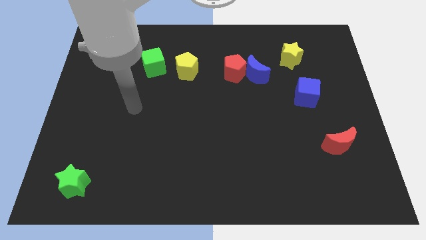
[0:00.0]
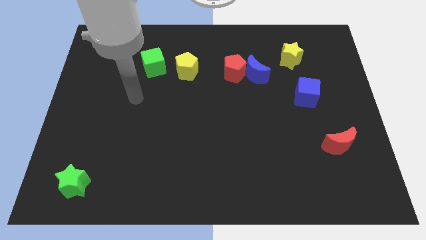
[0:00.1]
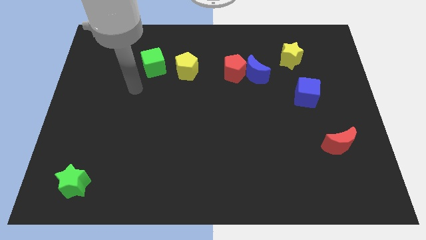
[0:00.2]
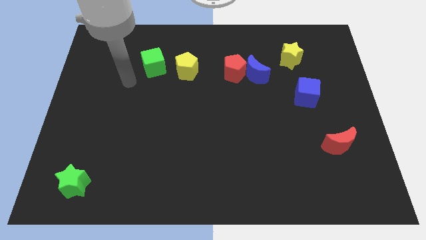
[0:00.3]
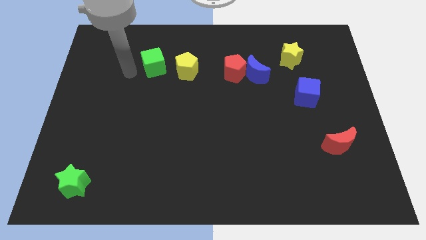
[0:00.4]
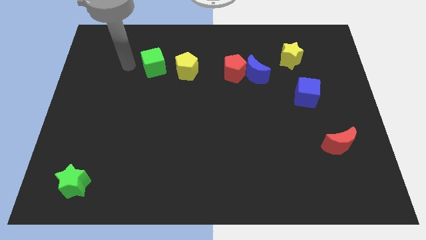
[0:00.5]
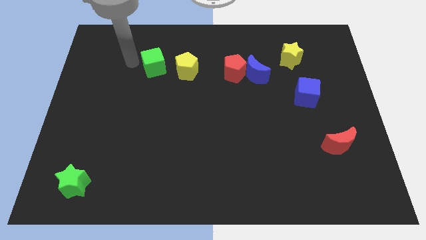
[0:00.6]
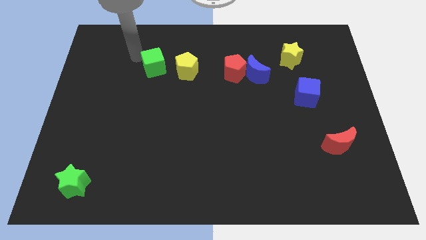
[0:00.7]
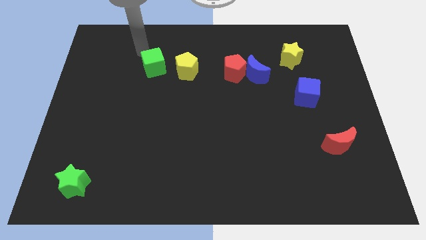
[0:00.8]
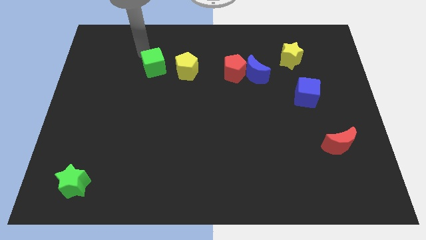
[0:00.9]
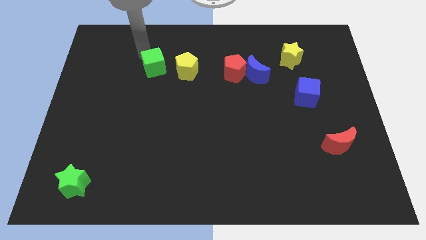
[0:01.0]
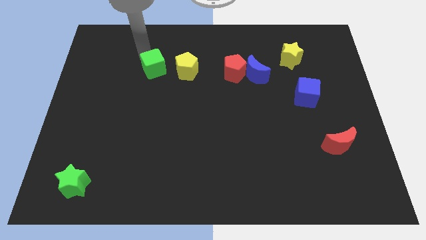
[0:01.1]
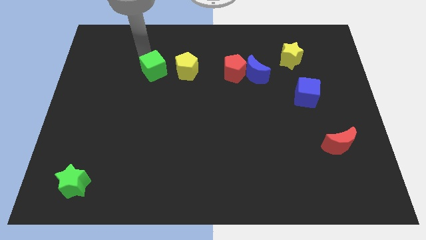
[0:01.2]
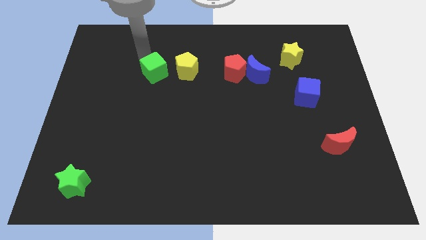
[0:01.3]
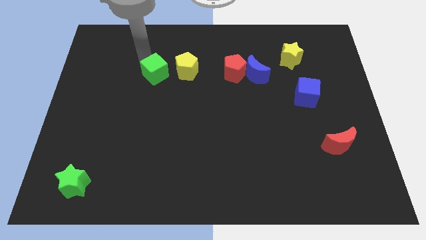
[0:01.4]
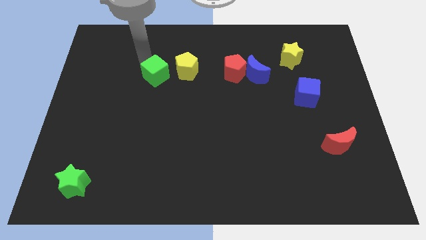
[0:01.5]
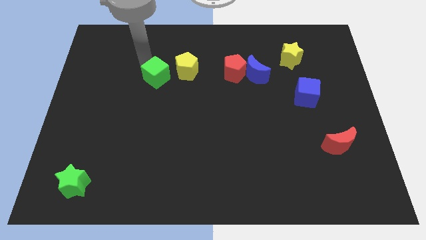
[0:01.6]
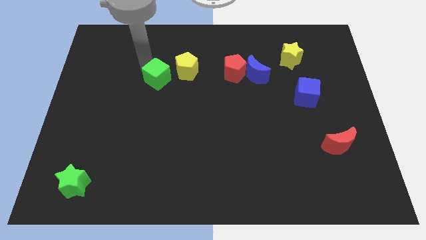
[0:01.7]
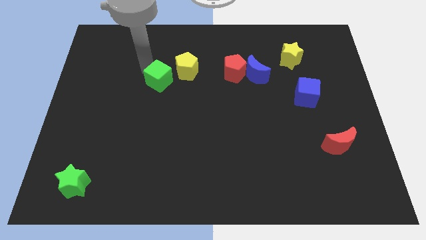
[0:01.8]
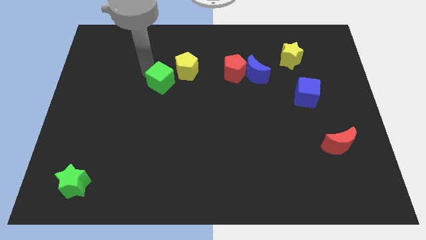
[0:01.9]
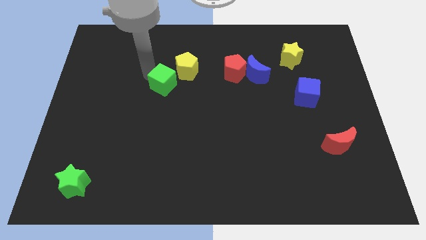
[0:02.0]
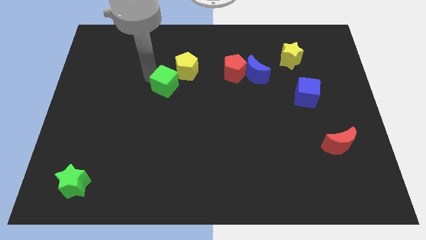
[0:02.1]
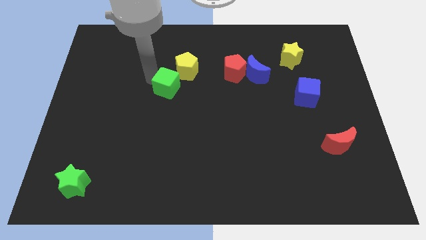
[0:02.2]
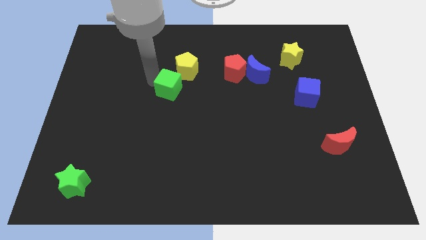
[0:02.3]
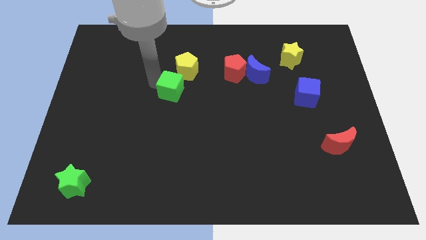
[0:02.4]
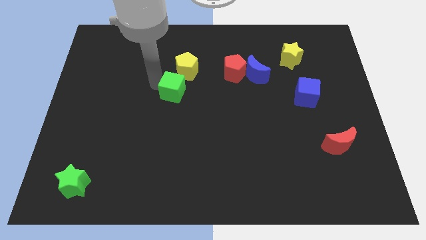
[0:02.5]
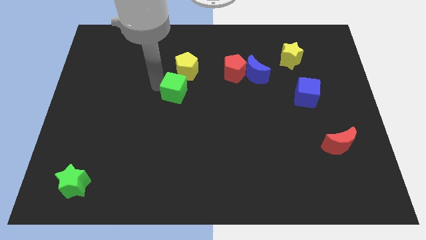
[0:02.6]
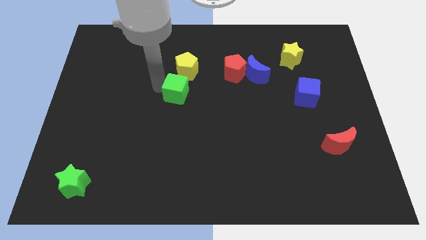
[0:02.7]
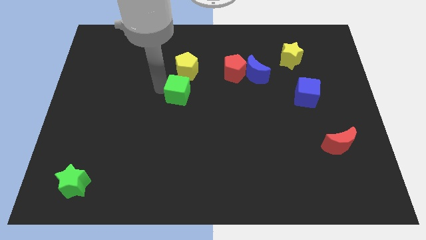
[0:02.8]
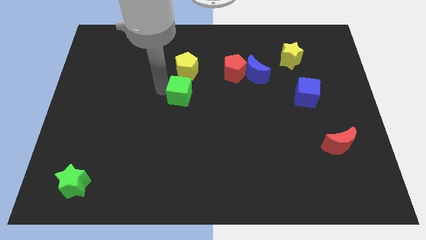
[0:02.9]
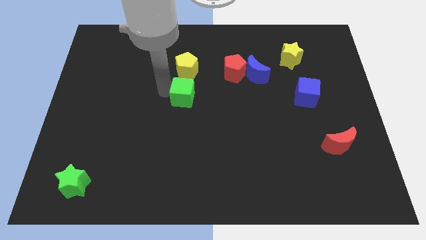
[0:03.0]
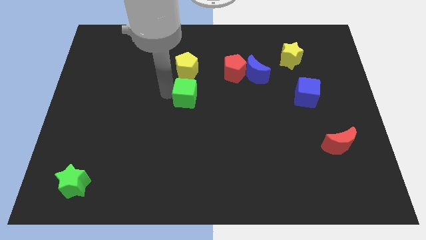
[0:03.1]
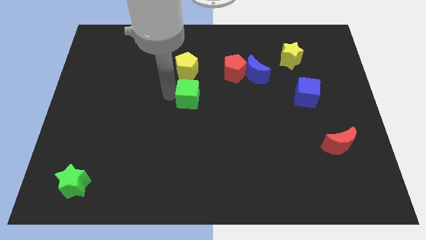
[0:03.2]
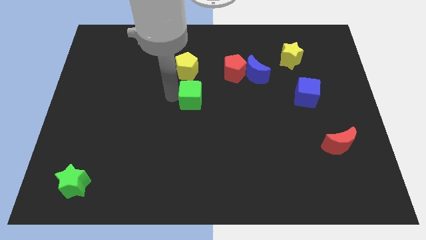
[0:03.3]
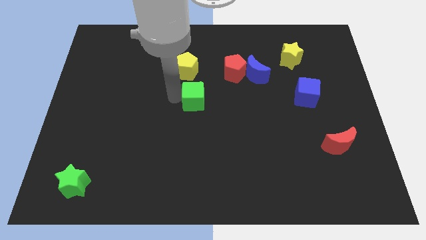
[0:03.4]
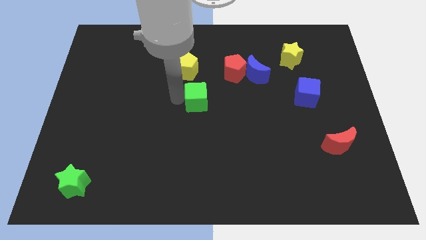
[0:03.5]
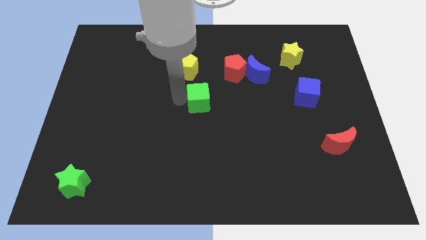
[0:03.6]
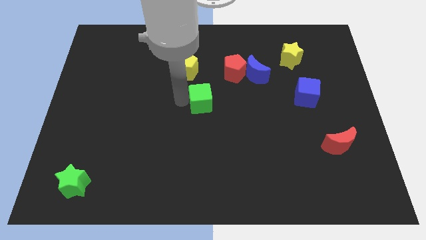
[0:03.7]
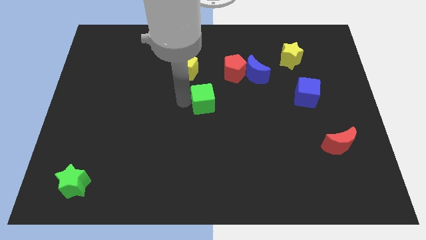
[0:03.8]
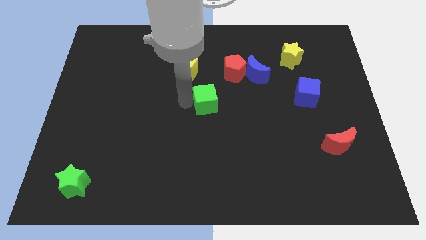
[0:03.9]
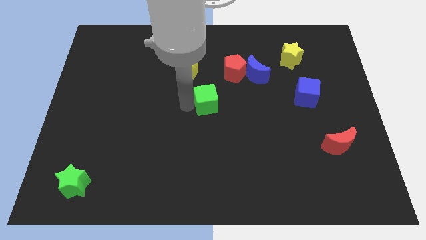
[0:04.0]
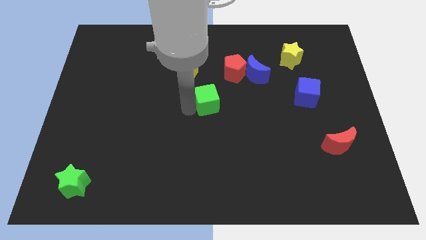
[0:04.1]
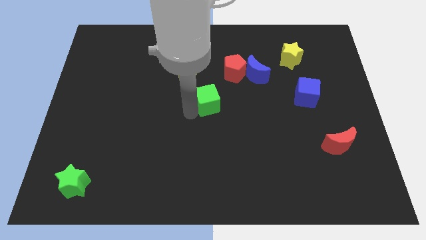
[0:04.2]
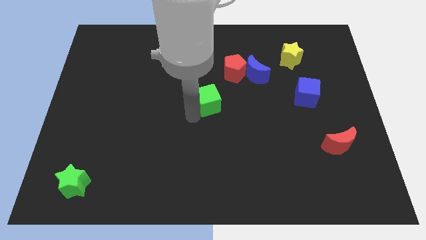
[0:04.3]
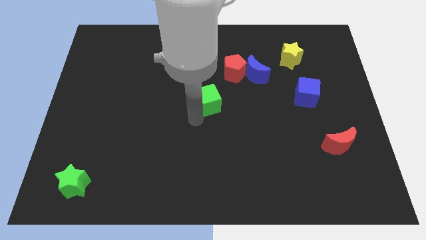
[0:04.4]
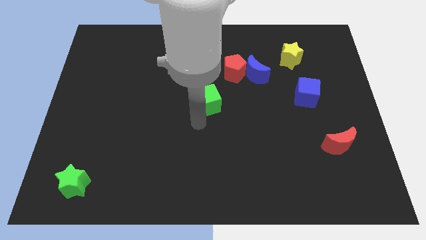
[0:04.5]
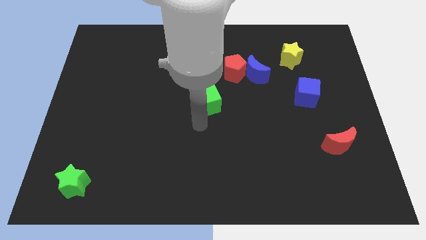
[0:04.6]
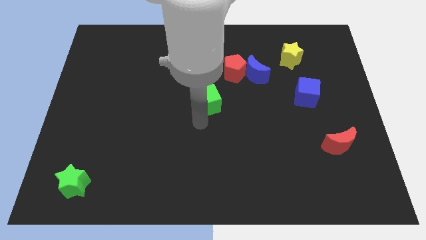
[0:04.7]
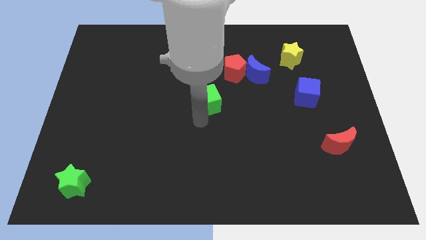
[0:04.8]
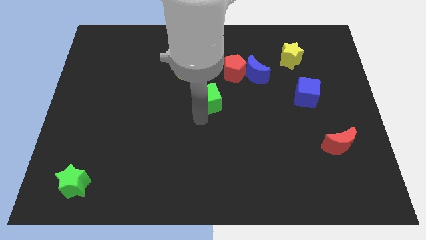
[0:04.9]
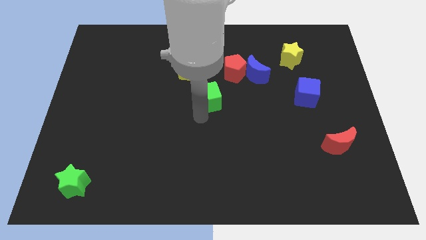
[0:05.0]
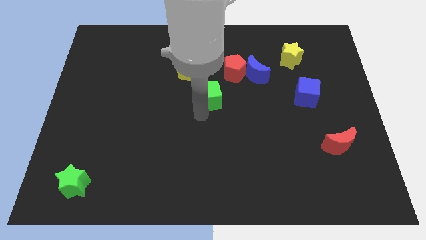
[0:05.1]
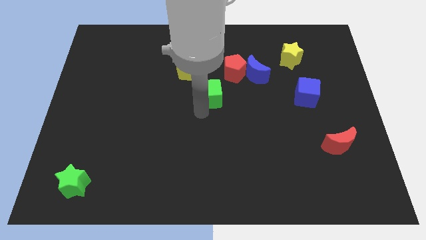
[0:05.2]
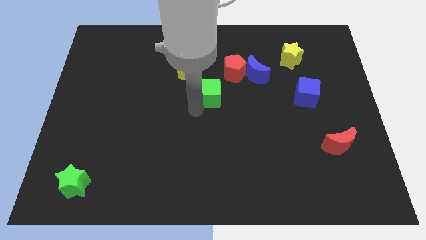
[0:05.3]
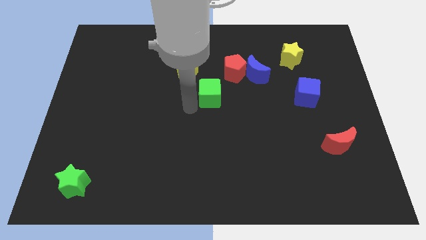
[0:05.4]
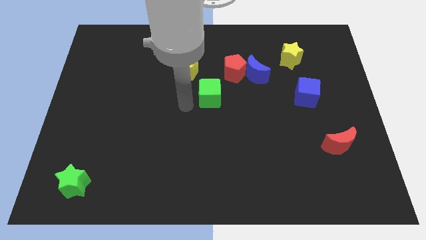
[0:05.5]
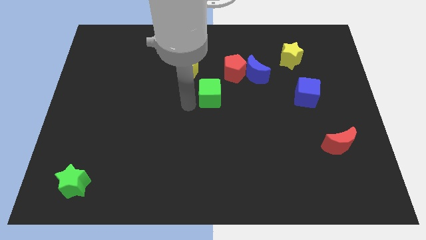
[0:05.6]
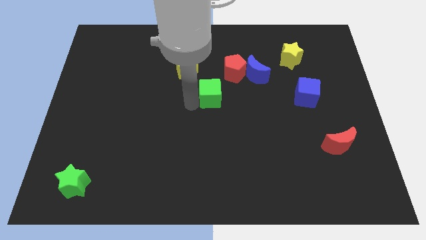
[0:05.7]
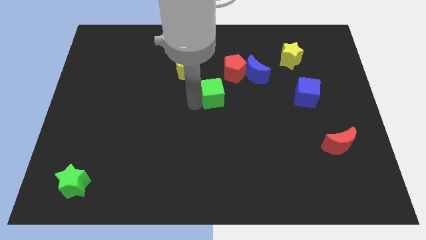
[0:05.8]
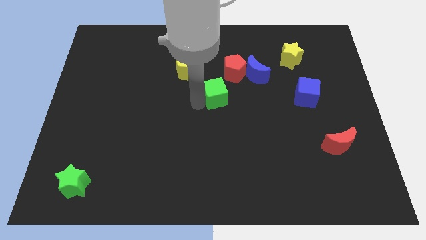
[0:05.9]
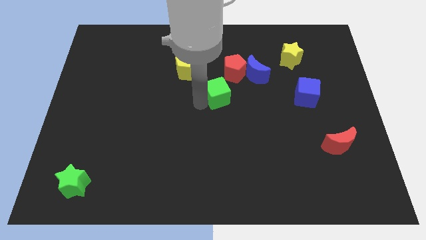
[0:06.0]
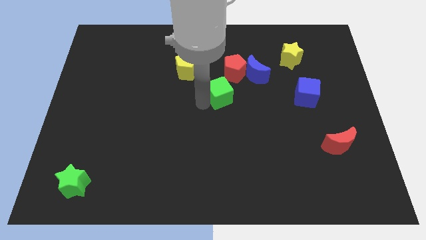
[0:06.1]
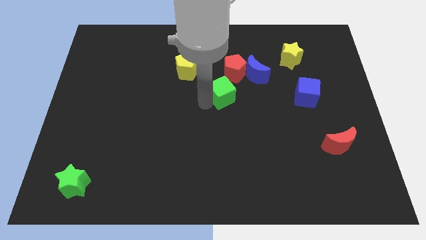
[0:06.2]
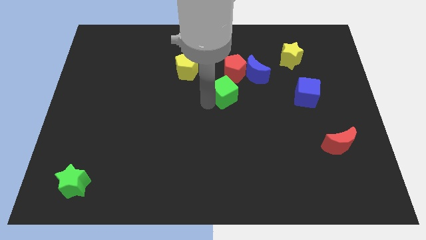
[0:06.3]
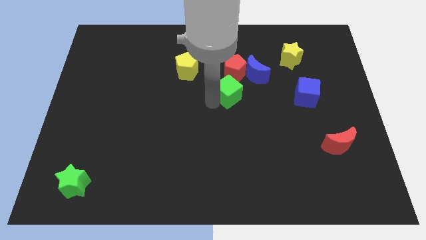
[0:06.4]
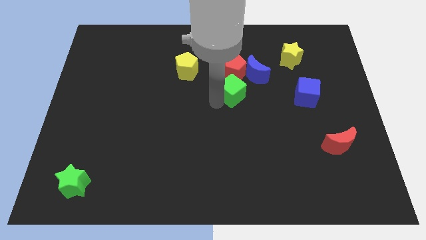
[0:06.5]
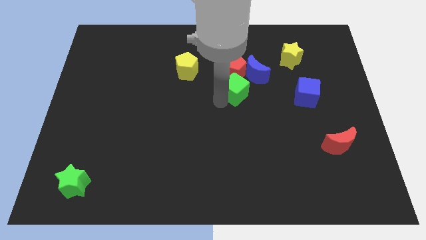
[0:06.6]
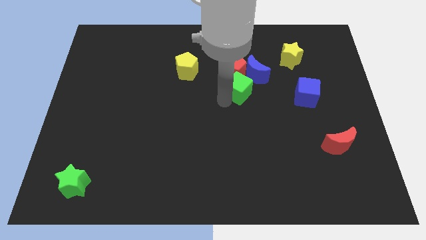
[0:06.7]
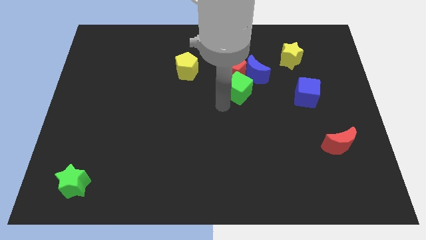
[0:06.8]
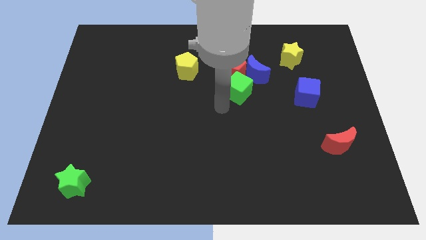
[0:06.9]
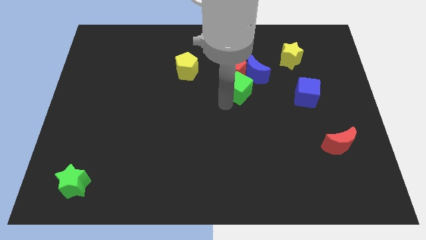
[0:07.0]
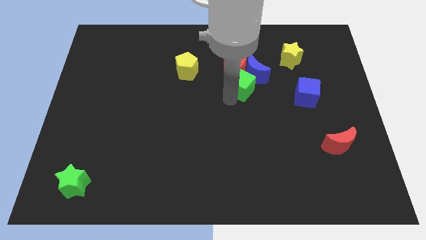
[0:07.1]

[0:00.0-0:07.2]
put the green cube next to the blue moon

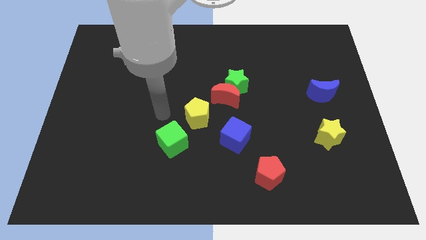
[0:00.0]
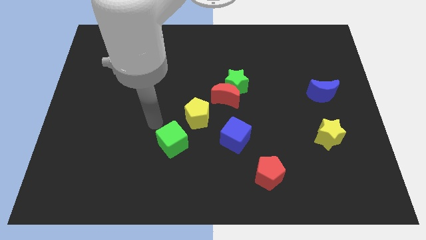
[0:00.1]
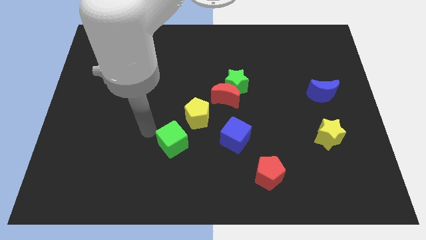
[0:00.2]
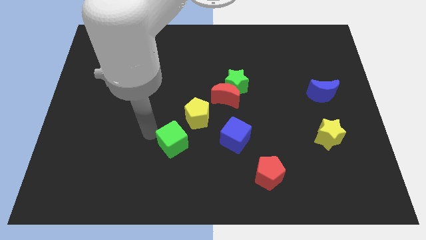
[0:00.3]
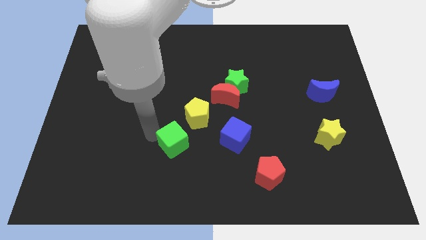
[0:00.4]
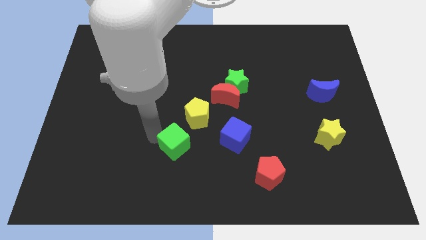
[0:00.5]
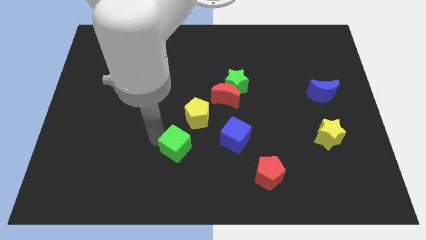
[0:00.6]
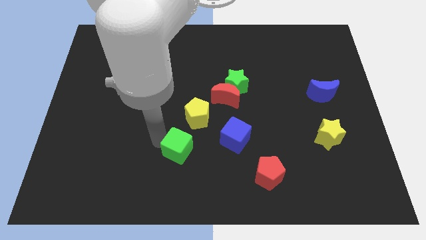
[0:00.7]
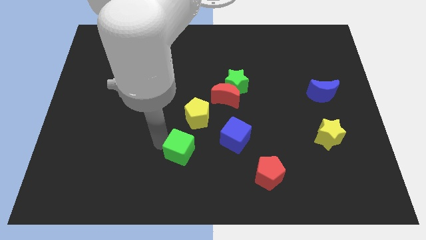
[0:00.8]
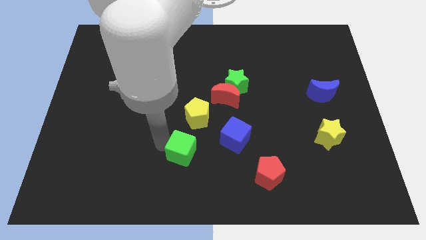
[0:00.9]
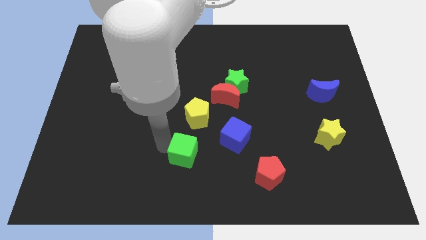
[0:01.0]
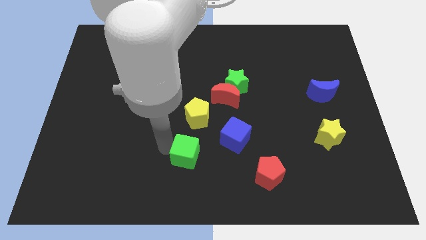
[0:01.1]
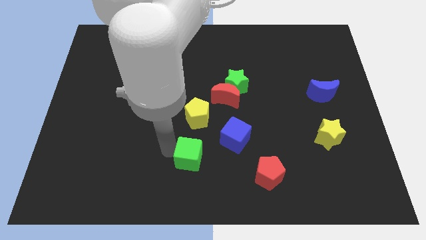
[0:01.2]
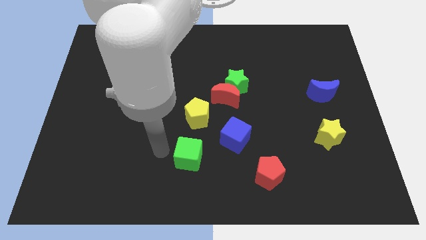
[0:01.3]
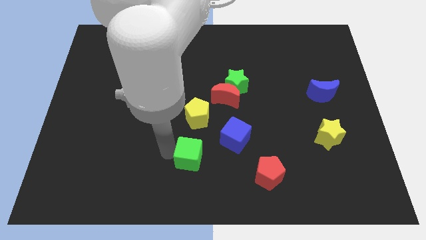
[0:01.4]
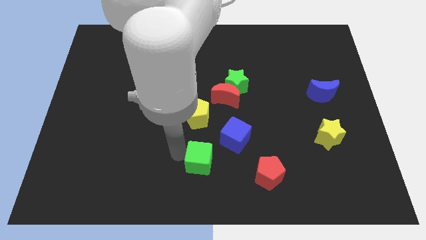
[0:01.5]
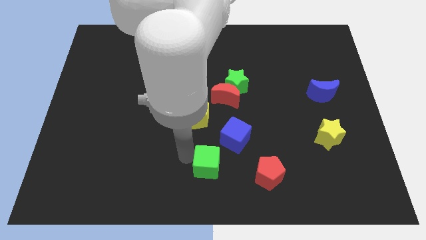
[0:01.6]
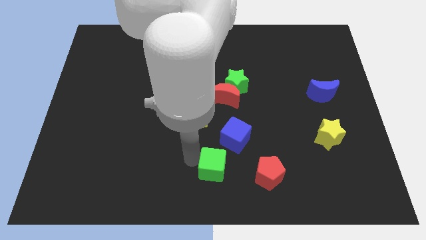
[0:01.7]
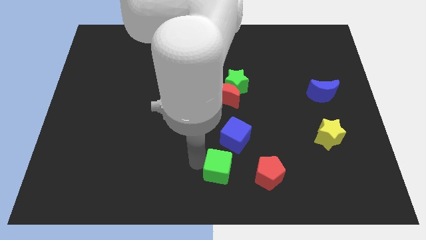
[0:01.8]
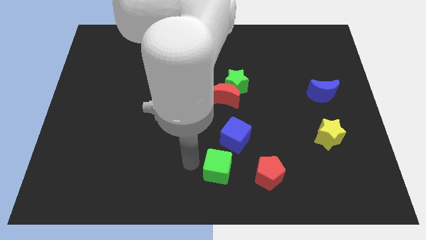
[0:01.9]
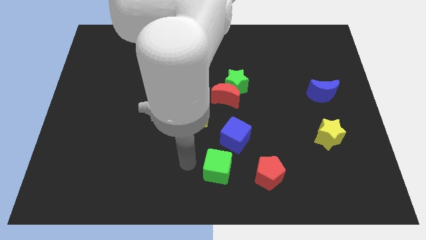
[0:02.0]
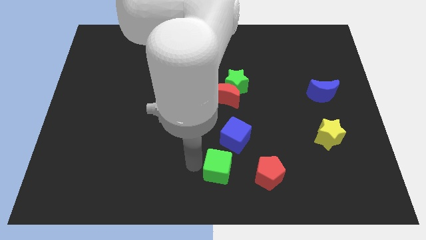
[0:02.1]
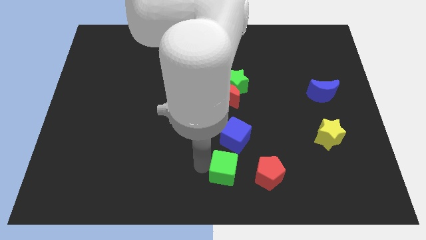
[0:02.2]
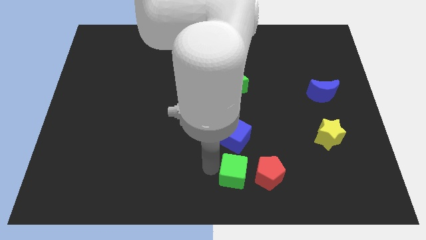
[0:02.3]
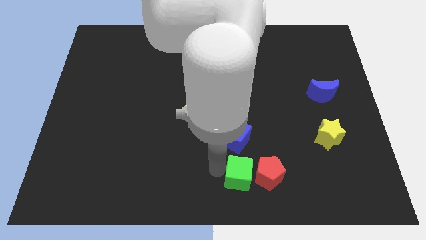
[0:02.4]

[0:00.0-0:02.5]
put the green cube towards the red pentagon
